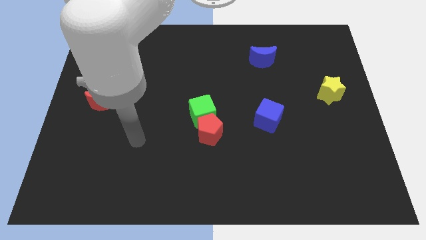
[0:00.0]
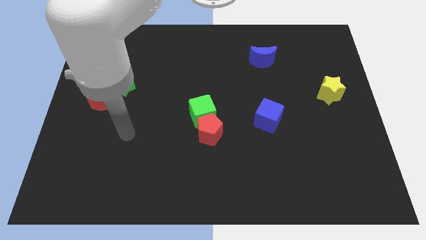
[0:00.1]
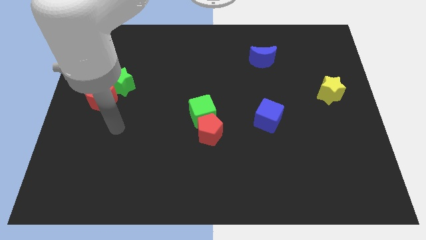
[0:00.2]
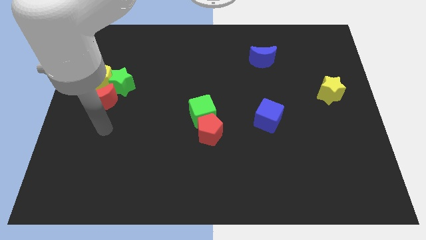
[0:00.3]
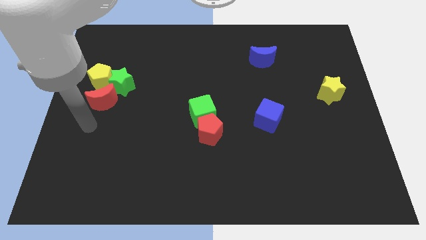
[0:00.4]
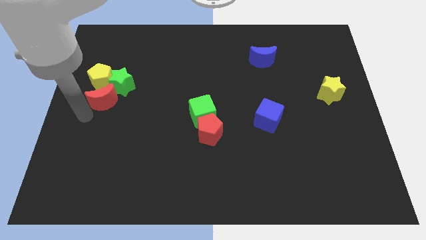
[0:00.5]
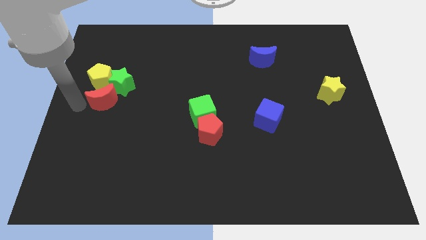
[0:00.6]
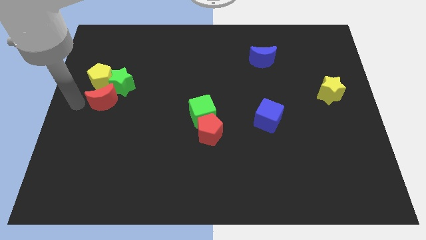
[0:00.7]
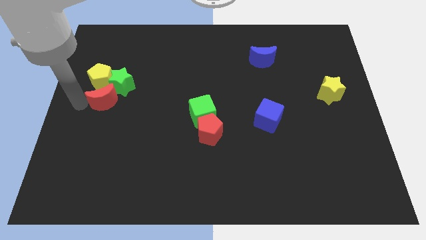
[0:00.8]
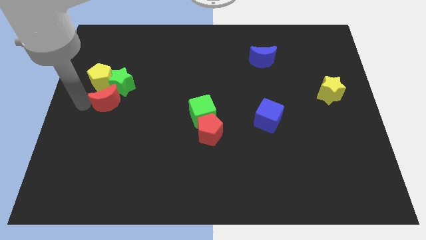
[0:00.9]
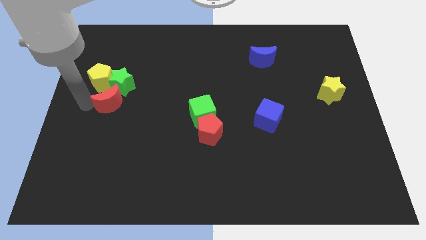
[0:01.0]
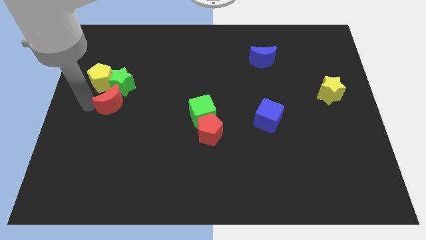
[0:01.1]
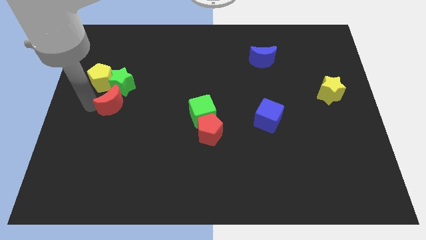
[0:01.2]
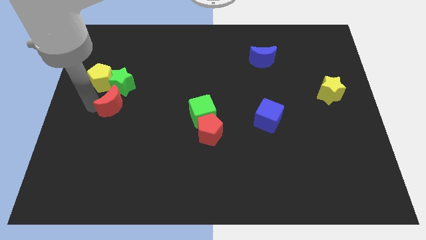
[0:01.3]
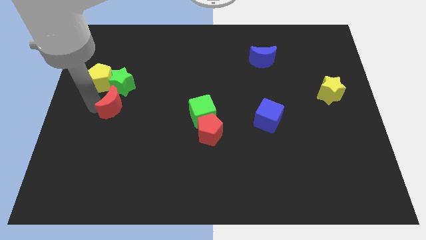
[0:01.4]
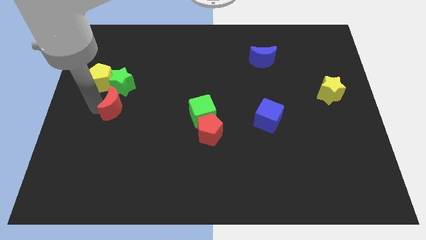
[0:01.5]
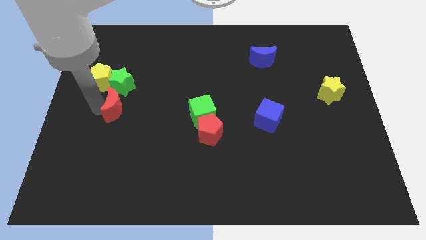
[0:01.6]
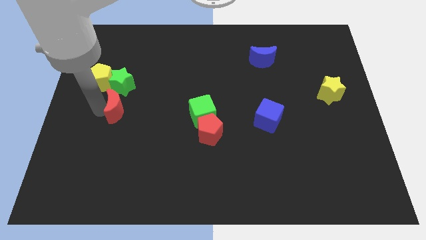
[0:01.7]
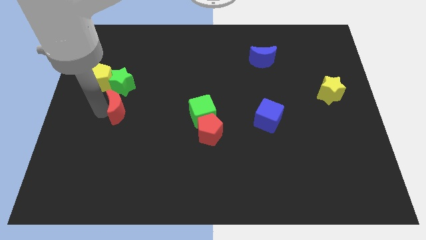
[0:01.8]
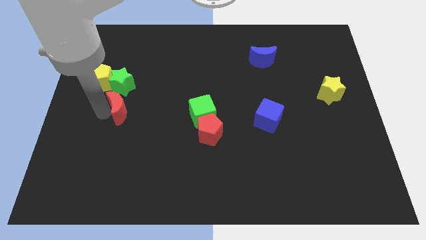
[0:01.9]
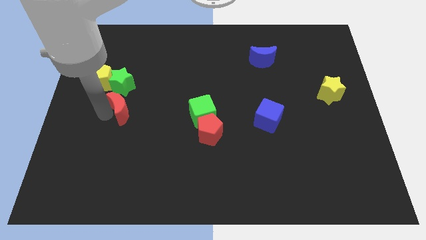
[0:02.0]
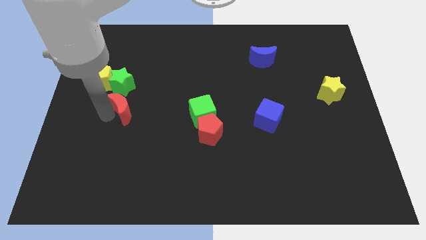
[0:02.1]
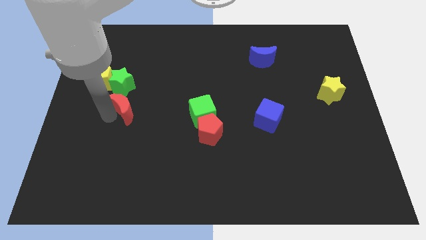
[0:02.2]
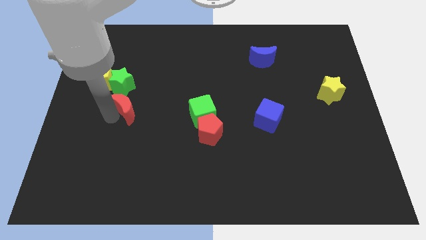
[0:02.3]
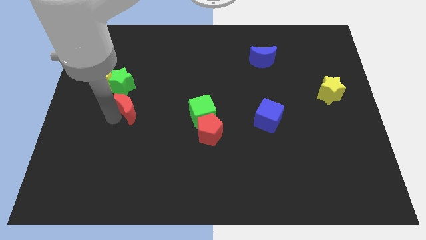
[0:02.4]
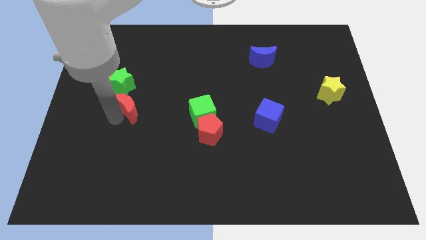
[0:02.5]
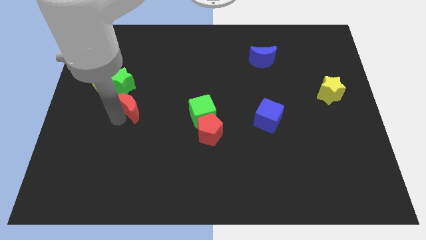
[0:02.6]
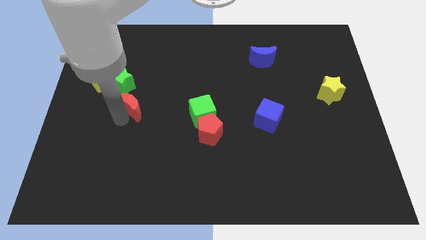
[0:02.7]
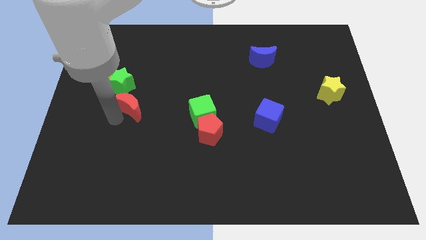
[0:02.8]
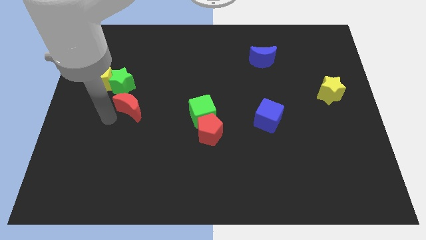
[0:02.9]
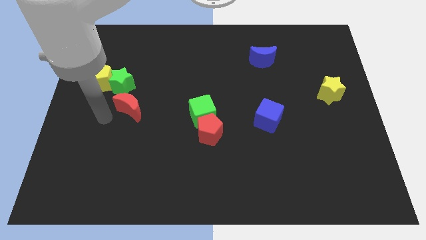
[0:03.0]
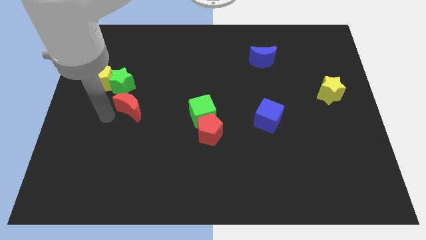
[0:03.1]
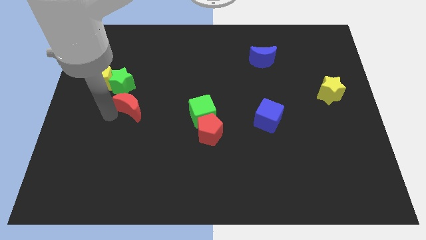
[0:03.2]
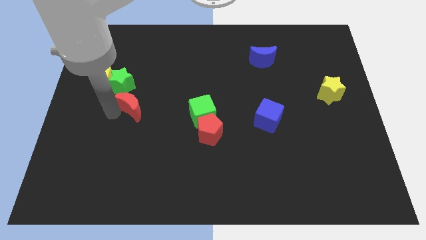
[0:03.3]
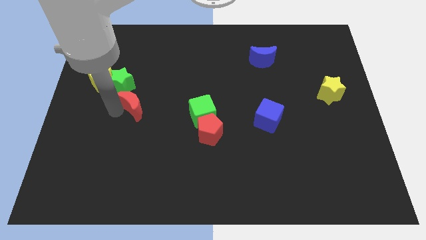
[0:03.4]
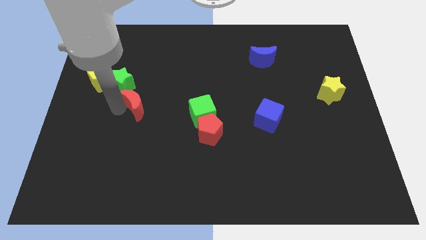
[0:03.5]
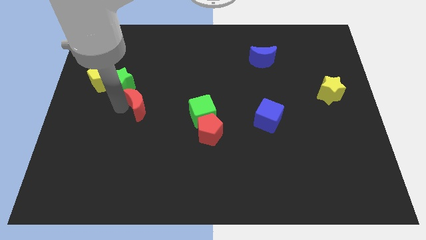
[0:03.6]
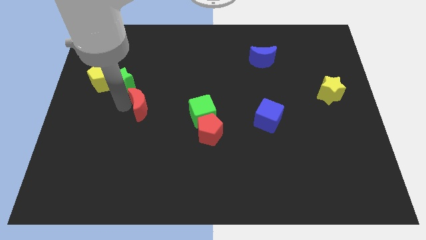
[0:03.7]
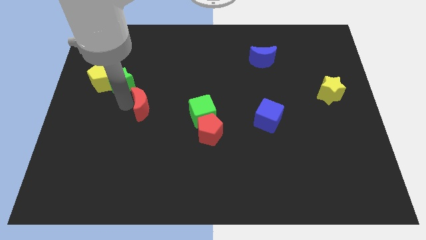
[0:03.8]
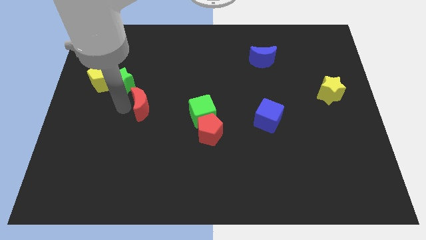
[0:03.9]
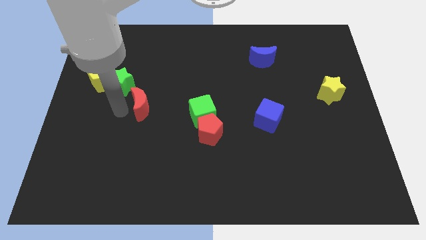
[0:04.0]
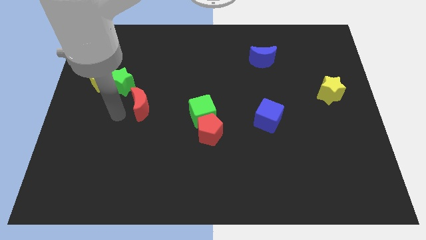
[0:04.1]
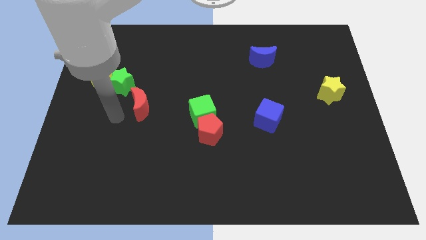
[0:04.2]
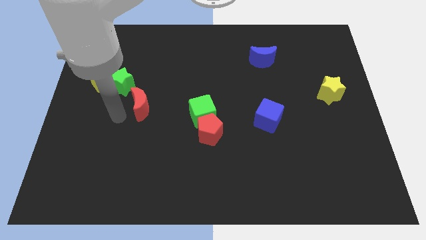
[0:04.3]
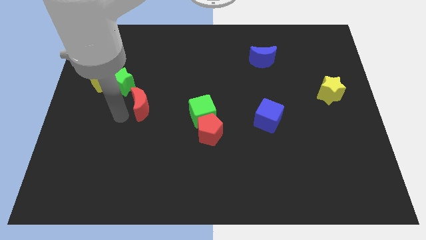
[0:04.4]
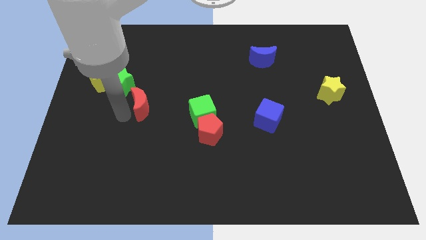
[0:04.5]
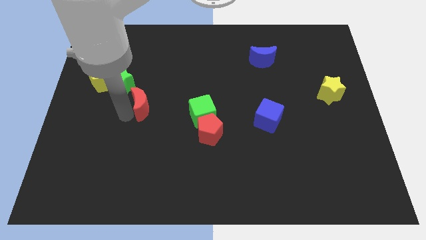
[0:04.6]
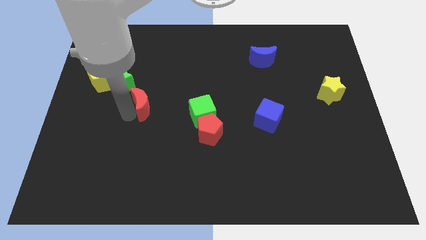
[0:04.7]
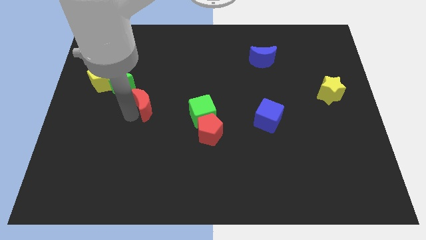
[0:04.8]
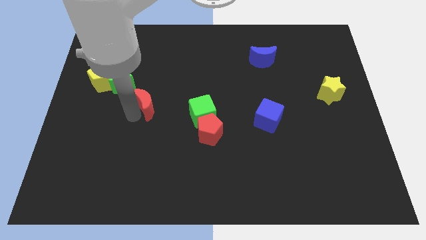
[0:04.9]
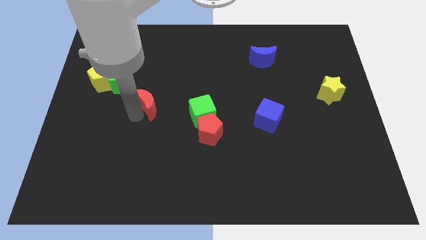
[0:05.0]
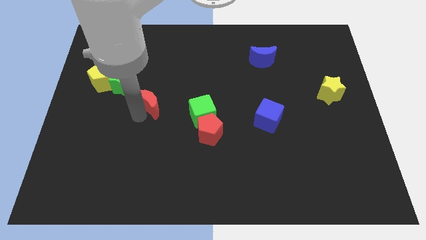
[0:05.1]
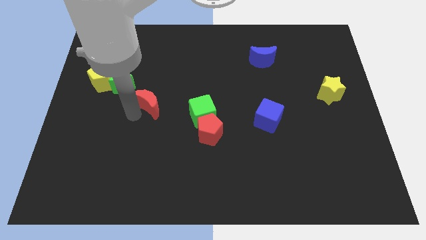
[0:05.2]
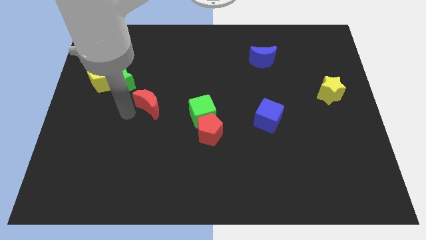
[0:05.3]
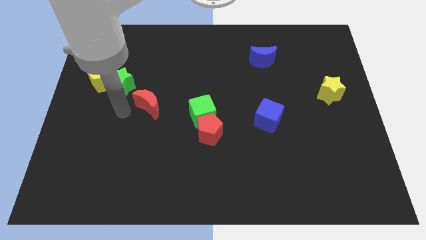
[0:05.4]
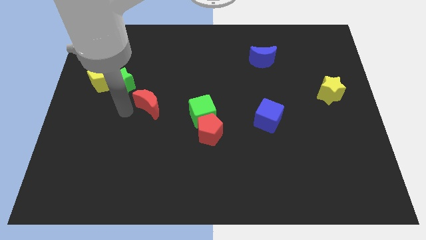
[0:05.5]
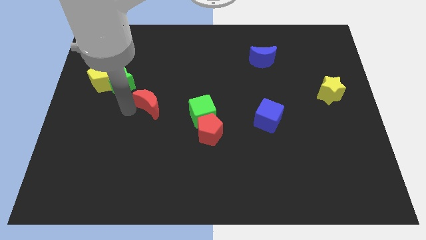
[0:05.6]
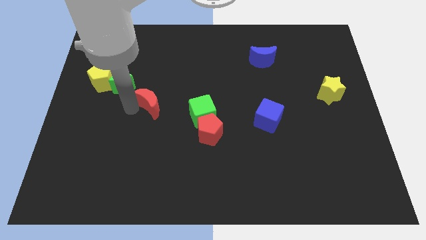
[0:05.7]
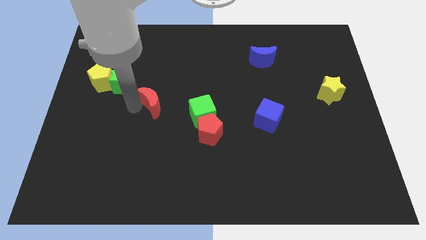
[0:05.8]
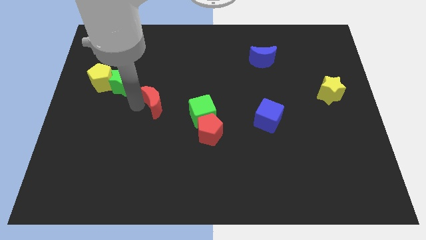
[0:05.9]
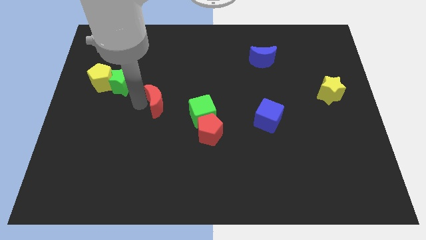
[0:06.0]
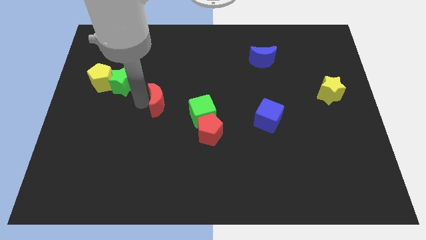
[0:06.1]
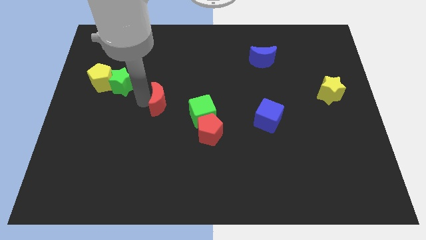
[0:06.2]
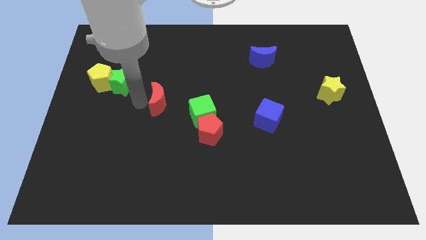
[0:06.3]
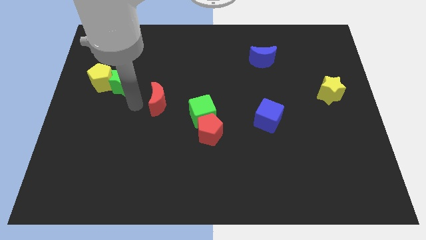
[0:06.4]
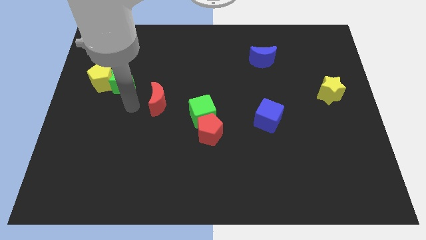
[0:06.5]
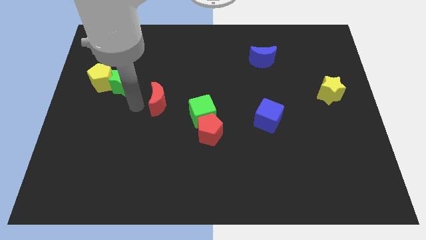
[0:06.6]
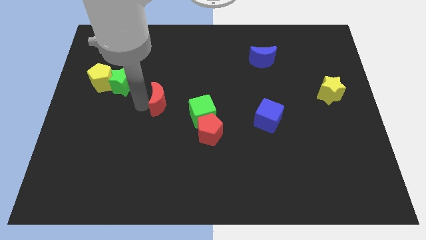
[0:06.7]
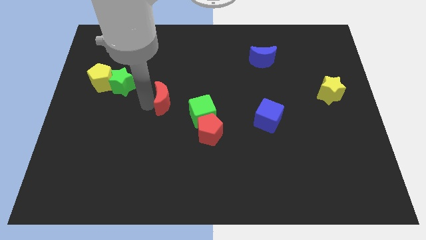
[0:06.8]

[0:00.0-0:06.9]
slide the red moon to the center
